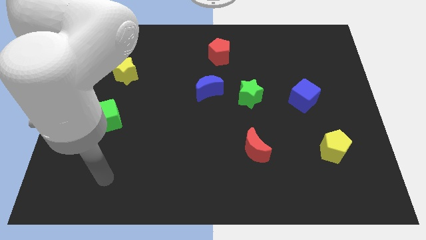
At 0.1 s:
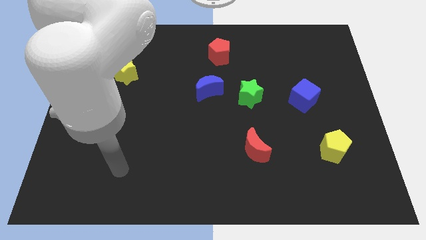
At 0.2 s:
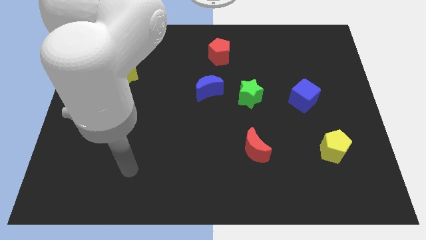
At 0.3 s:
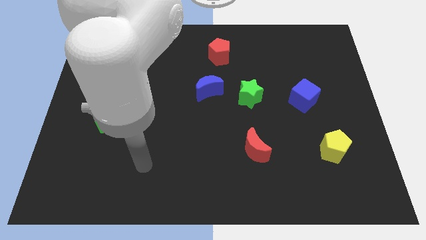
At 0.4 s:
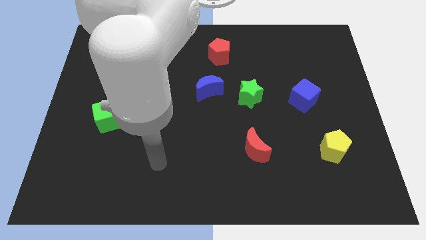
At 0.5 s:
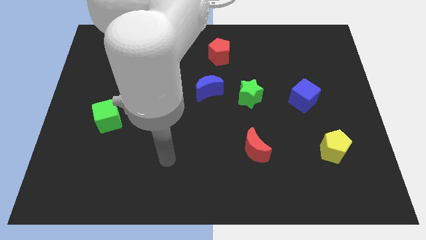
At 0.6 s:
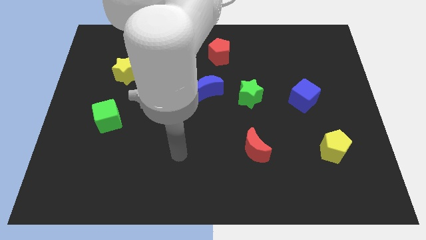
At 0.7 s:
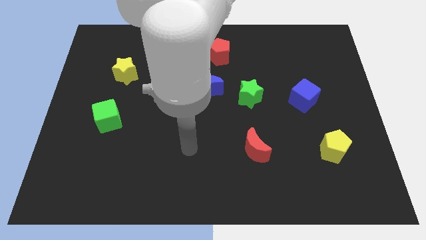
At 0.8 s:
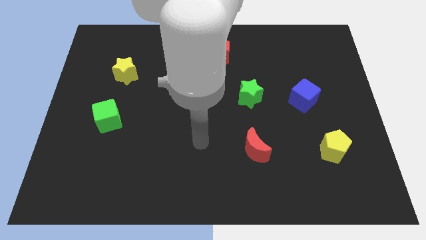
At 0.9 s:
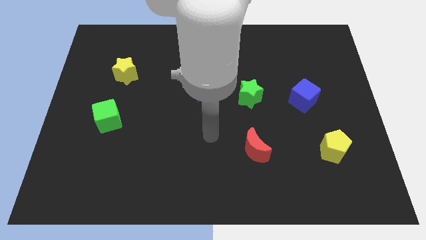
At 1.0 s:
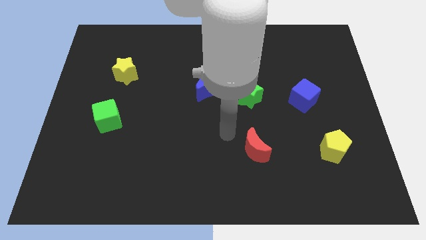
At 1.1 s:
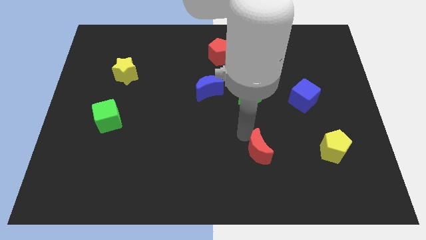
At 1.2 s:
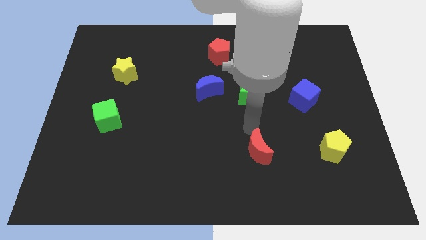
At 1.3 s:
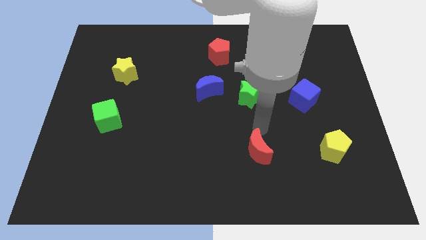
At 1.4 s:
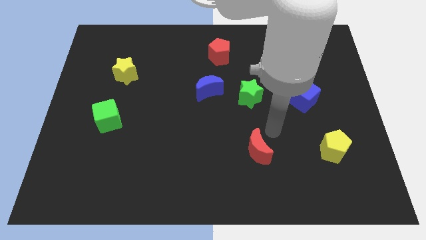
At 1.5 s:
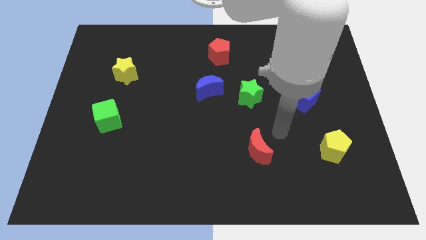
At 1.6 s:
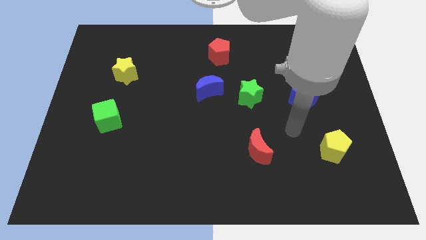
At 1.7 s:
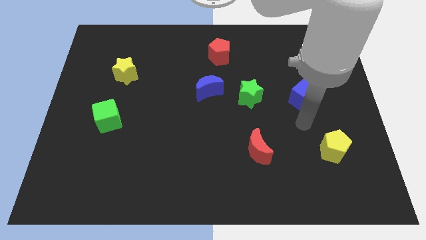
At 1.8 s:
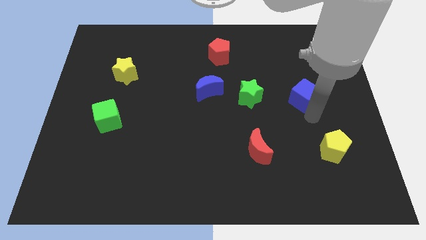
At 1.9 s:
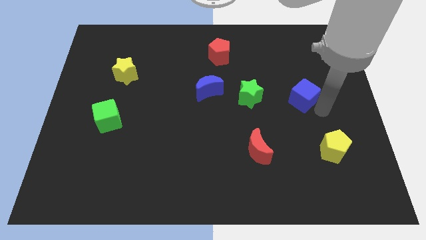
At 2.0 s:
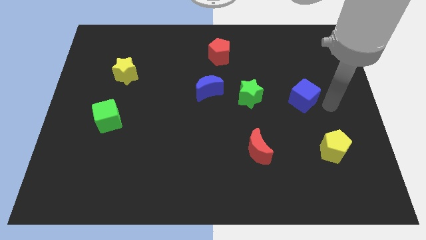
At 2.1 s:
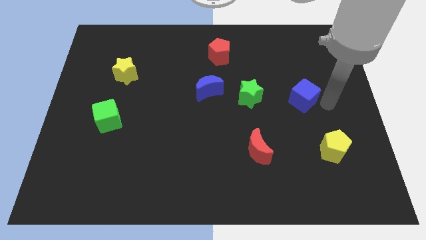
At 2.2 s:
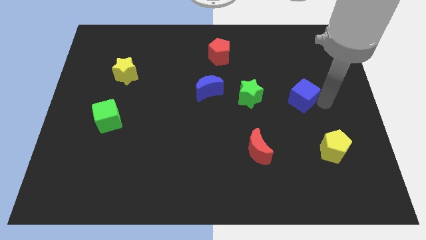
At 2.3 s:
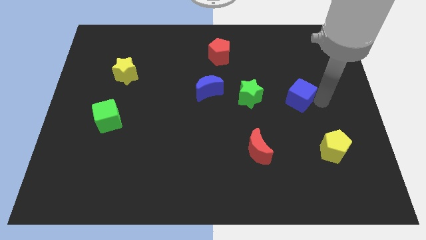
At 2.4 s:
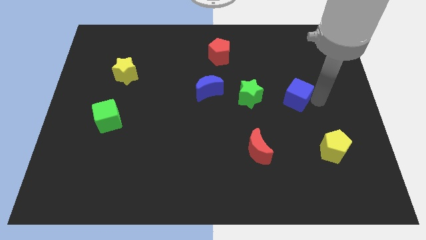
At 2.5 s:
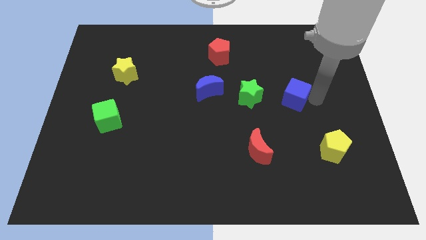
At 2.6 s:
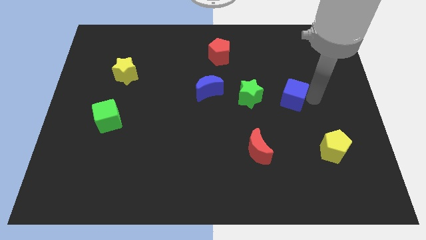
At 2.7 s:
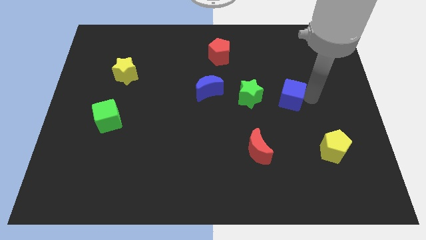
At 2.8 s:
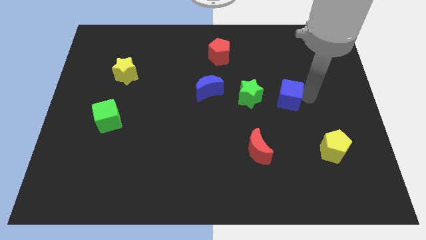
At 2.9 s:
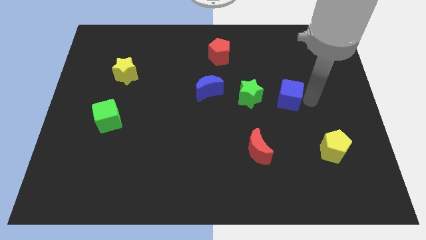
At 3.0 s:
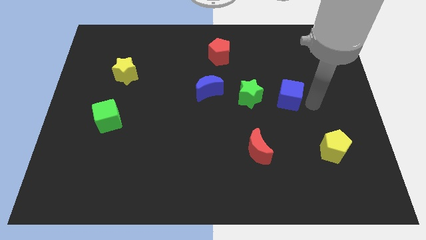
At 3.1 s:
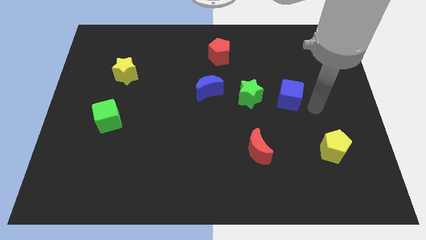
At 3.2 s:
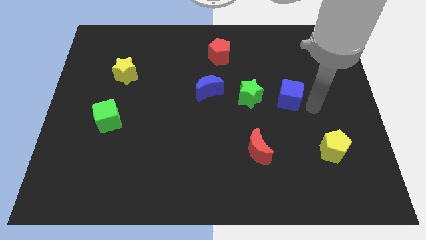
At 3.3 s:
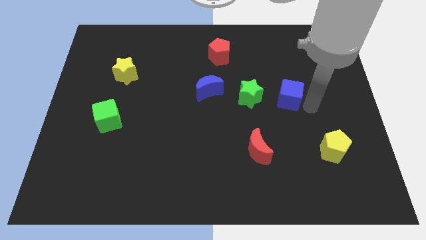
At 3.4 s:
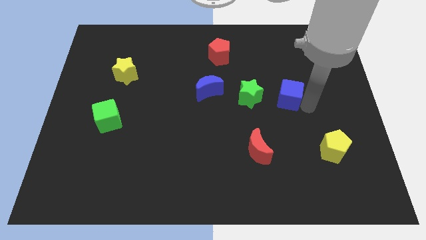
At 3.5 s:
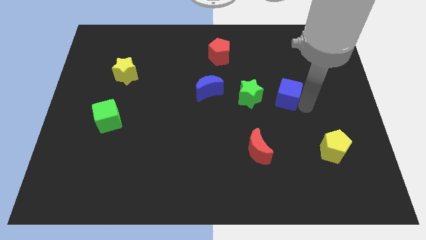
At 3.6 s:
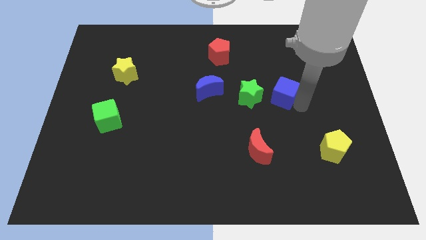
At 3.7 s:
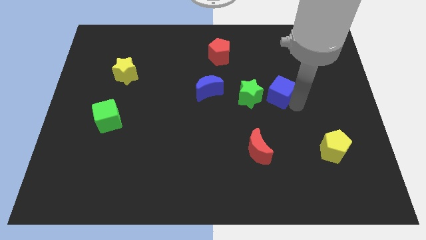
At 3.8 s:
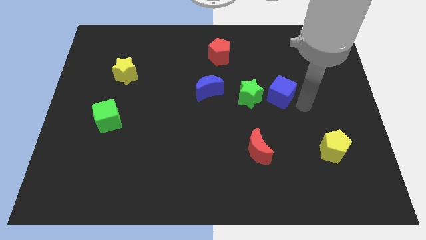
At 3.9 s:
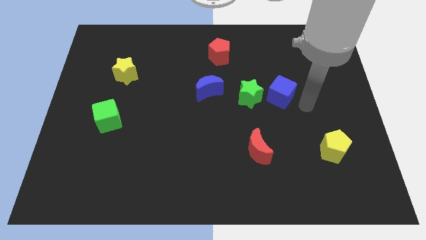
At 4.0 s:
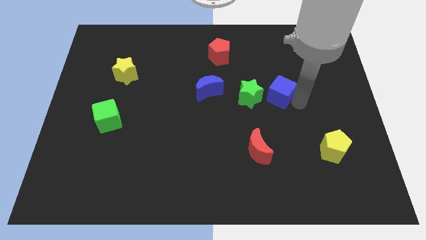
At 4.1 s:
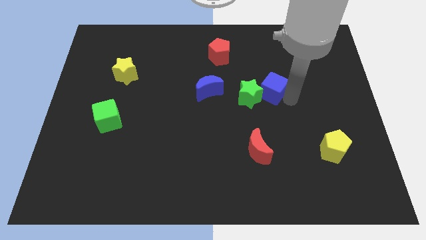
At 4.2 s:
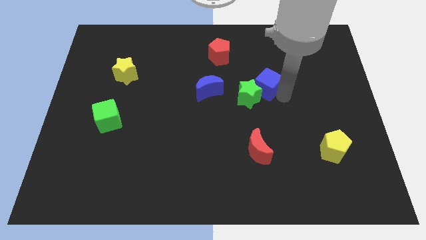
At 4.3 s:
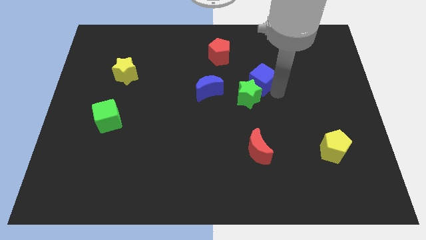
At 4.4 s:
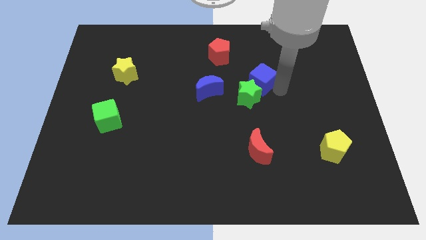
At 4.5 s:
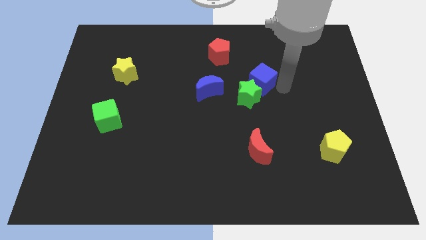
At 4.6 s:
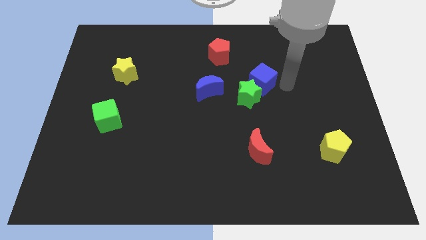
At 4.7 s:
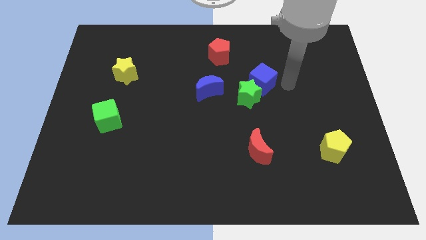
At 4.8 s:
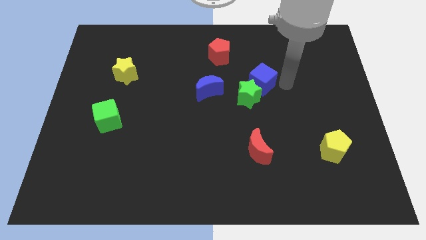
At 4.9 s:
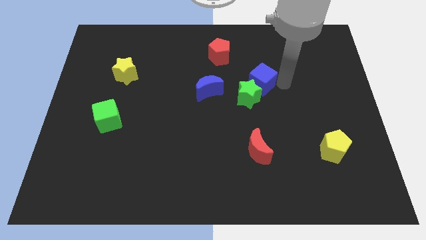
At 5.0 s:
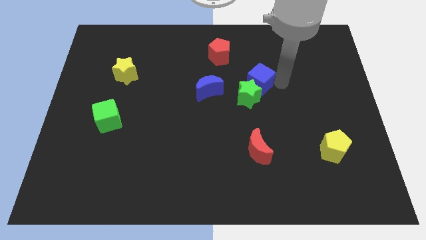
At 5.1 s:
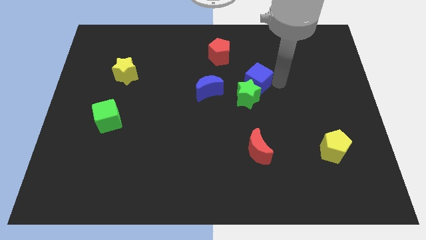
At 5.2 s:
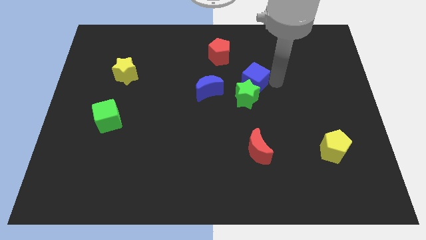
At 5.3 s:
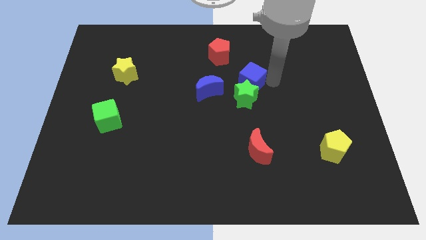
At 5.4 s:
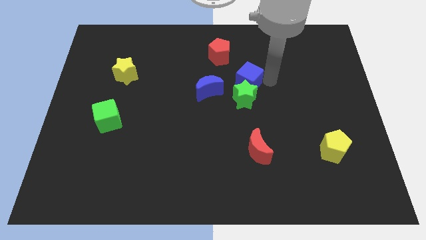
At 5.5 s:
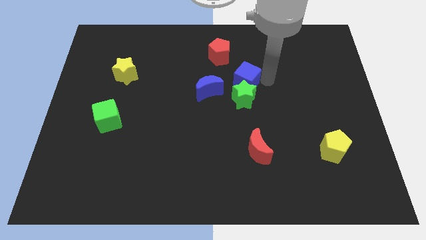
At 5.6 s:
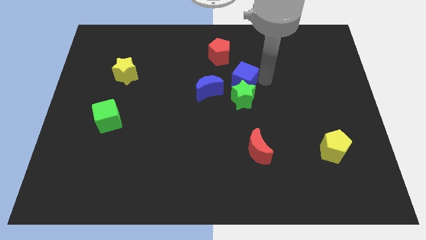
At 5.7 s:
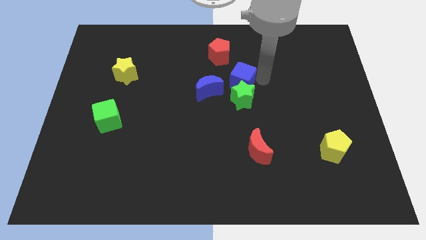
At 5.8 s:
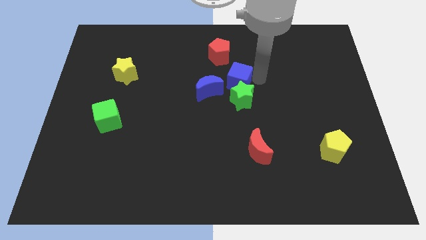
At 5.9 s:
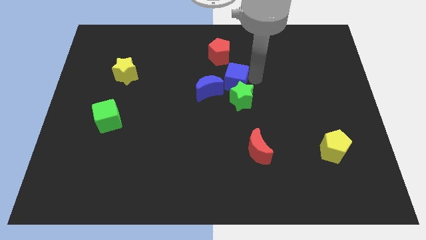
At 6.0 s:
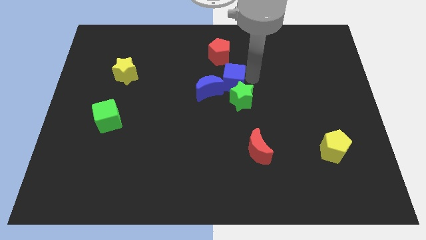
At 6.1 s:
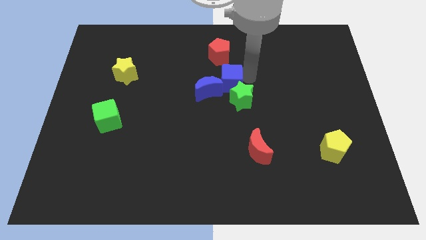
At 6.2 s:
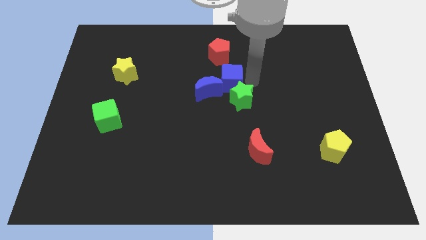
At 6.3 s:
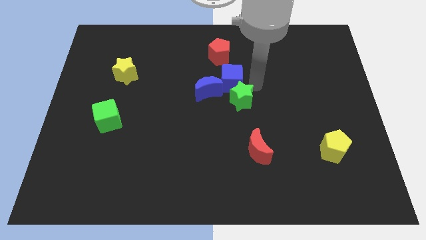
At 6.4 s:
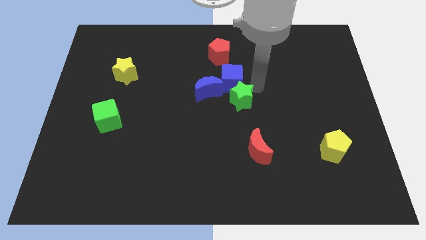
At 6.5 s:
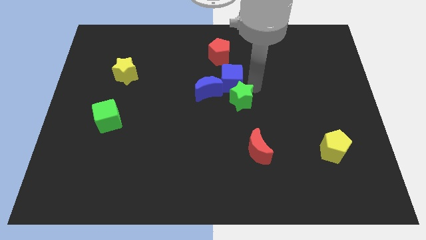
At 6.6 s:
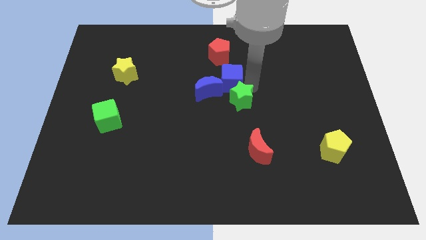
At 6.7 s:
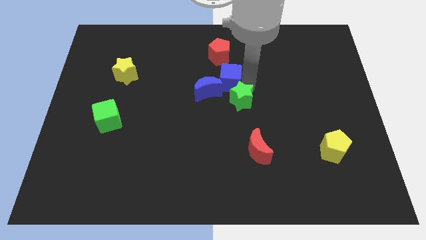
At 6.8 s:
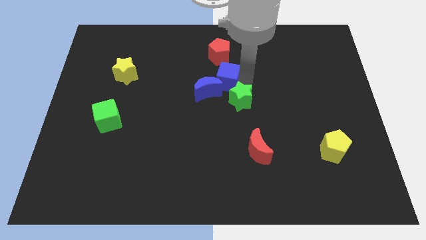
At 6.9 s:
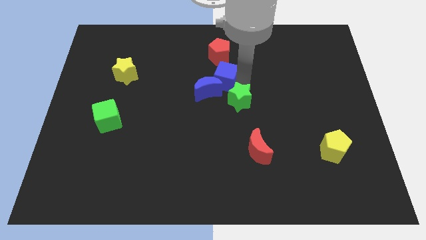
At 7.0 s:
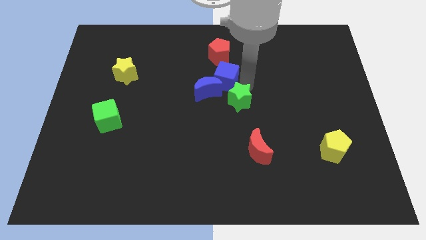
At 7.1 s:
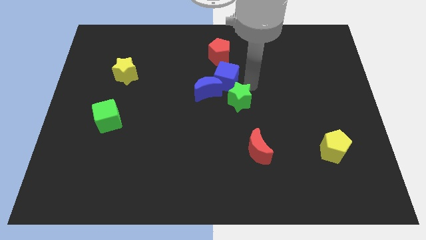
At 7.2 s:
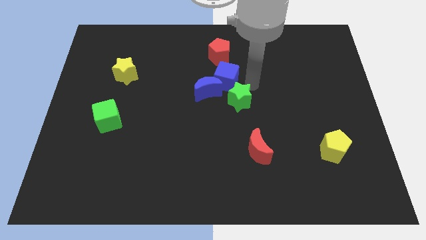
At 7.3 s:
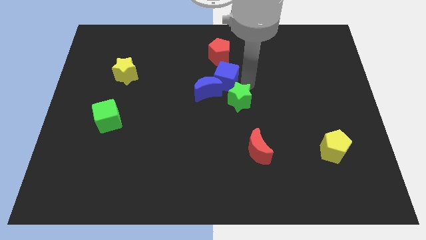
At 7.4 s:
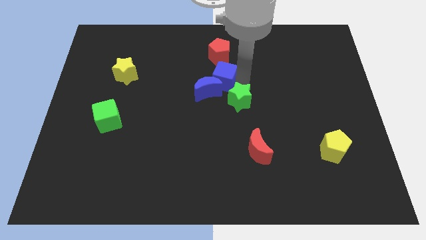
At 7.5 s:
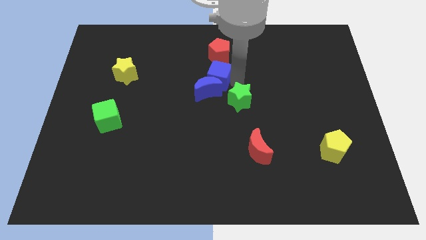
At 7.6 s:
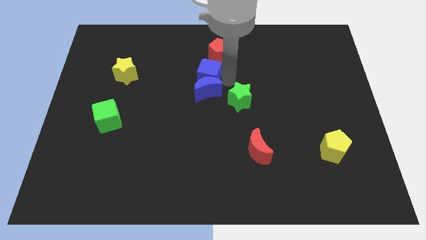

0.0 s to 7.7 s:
move the blue cube diagonally up and to the left of the blue moon
